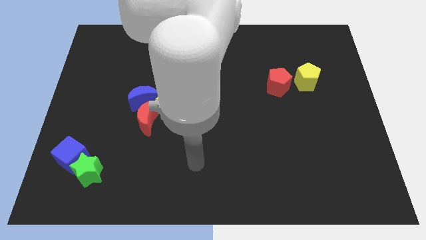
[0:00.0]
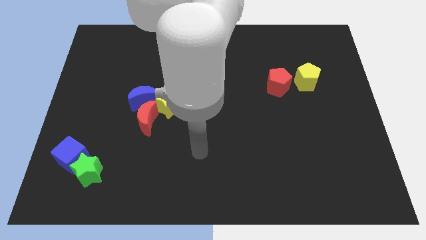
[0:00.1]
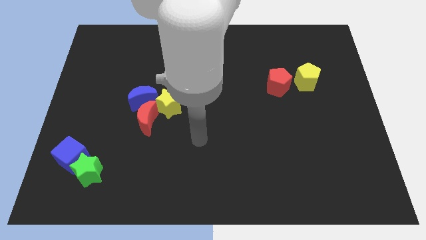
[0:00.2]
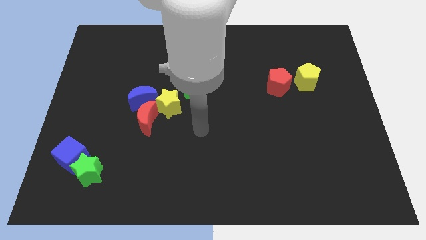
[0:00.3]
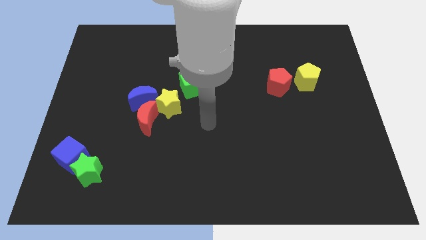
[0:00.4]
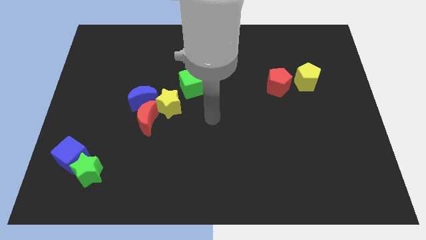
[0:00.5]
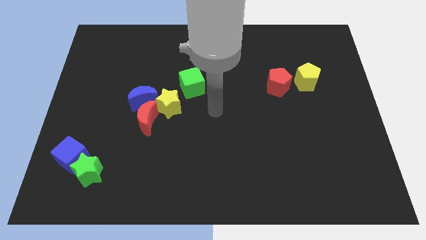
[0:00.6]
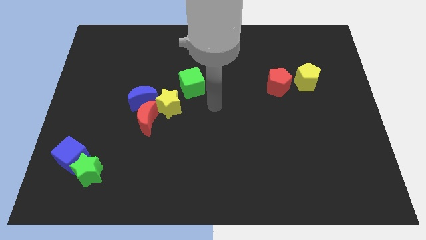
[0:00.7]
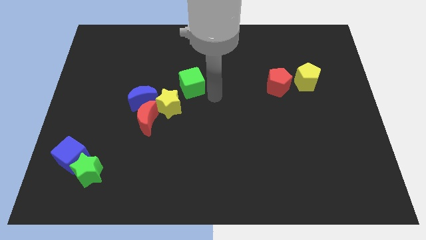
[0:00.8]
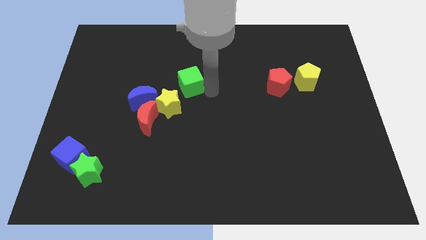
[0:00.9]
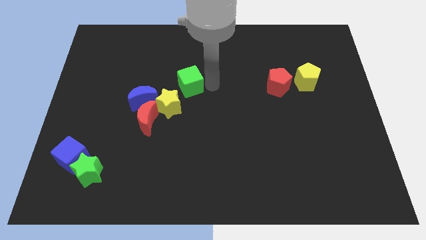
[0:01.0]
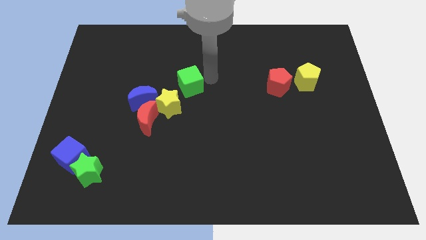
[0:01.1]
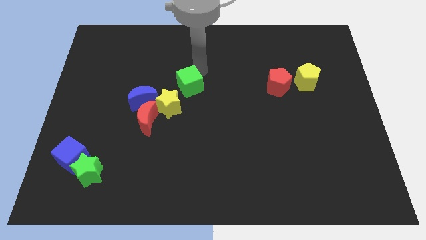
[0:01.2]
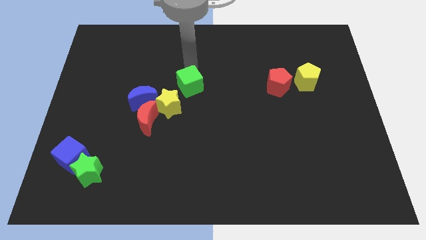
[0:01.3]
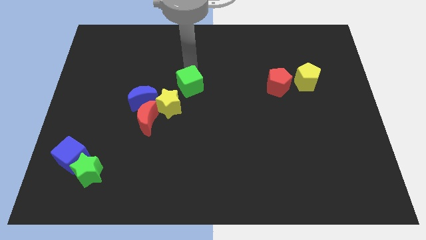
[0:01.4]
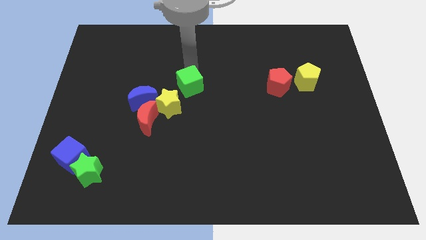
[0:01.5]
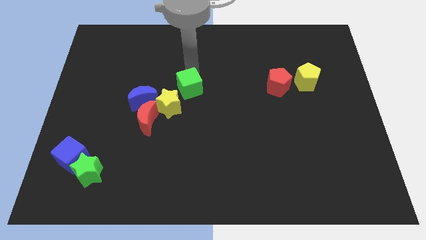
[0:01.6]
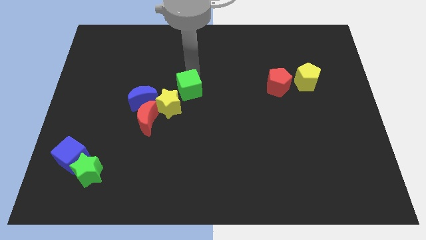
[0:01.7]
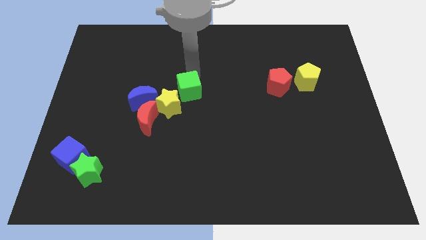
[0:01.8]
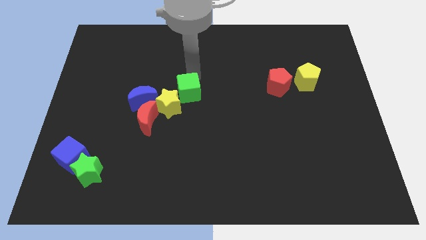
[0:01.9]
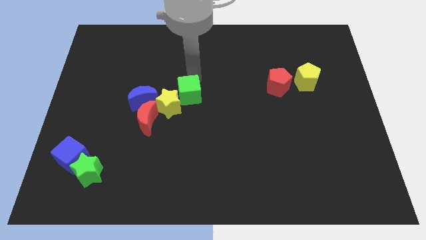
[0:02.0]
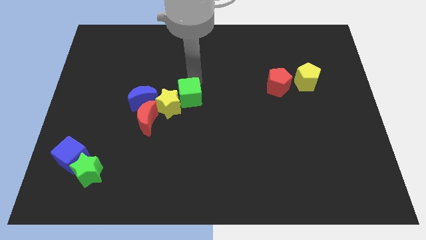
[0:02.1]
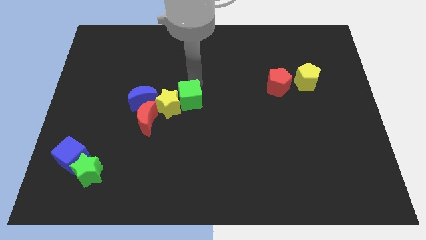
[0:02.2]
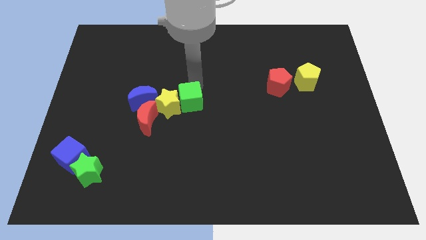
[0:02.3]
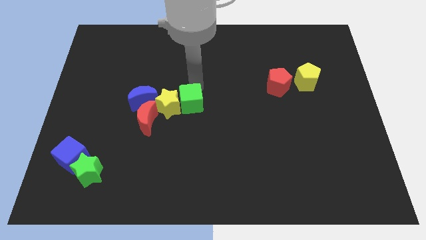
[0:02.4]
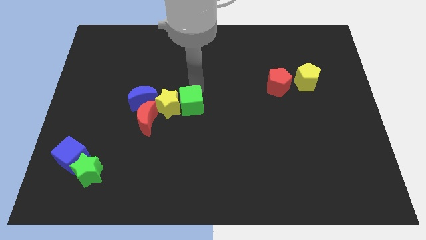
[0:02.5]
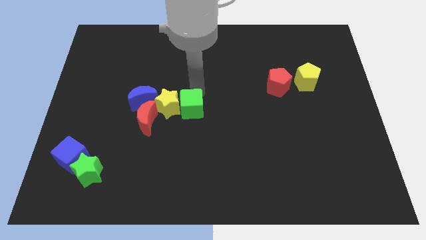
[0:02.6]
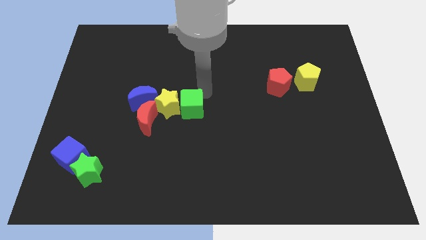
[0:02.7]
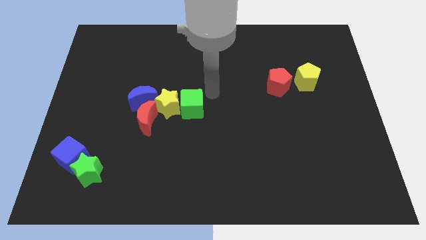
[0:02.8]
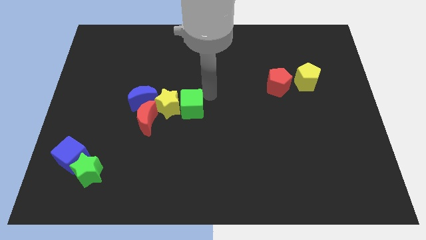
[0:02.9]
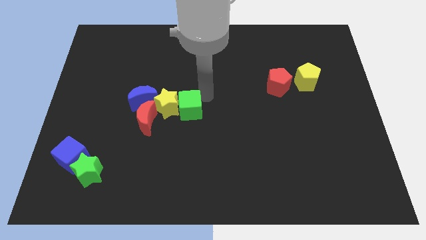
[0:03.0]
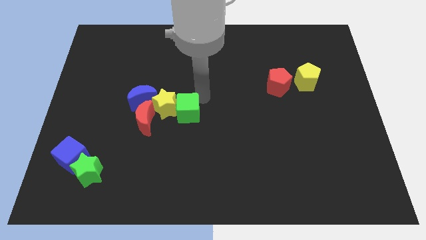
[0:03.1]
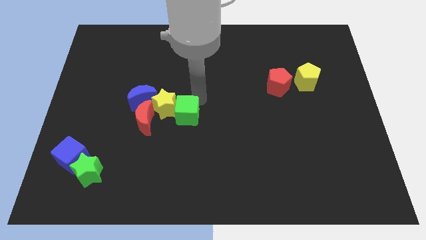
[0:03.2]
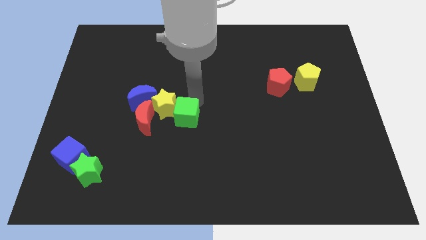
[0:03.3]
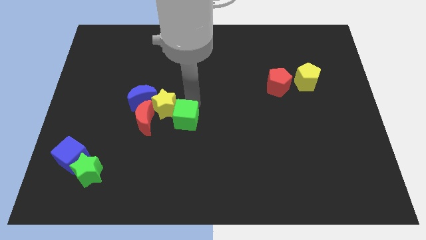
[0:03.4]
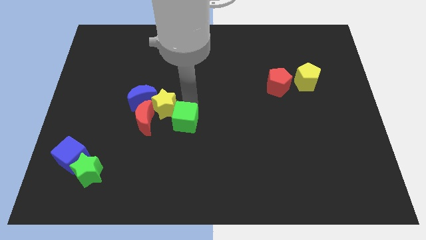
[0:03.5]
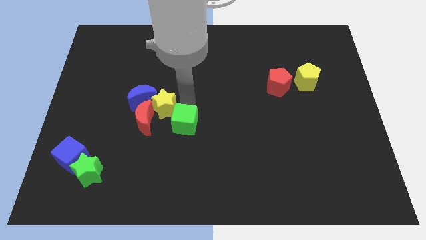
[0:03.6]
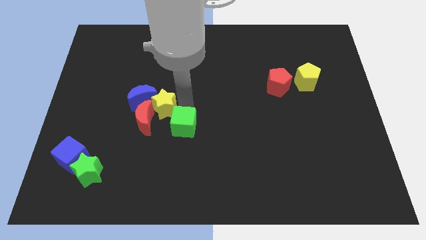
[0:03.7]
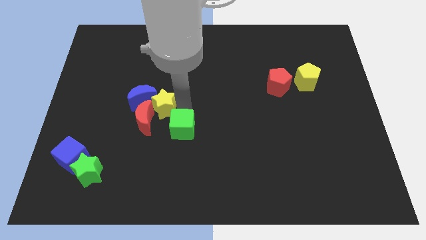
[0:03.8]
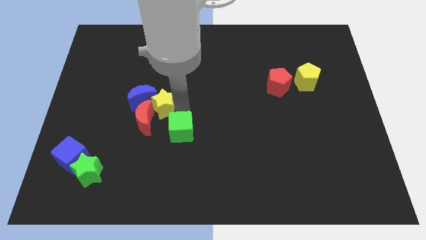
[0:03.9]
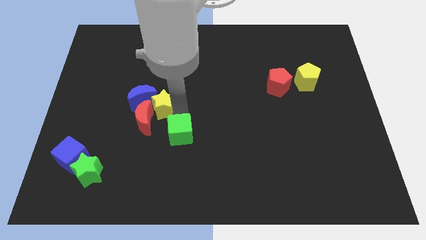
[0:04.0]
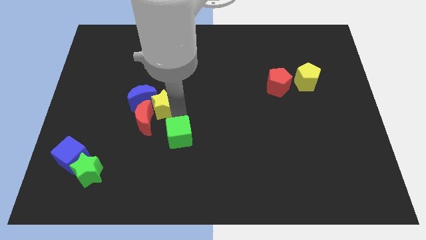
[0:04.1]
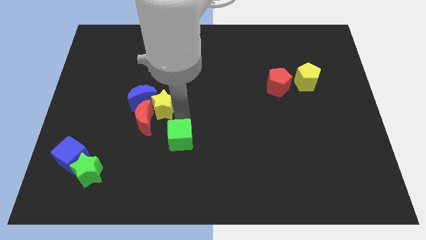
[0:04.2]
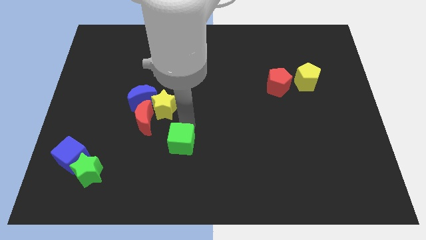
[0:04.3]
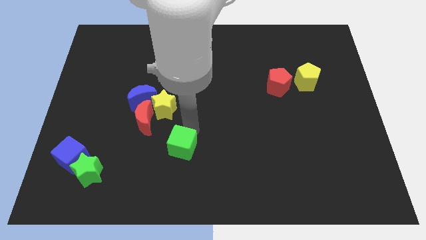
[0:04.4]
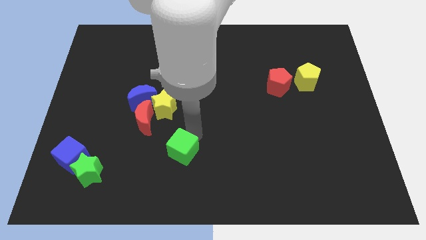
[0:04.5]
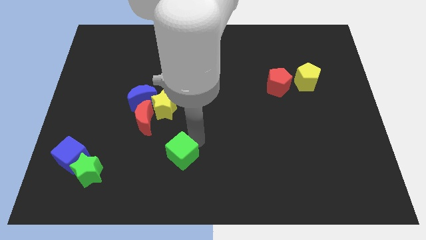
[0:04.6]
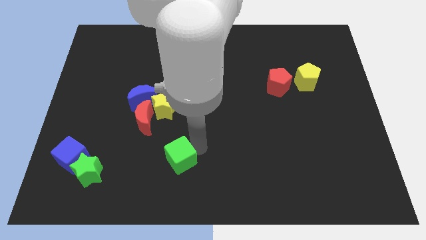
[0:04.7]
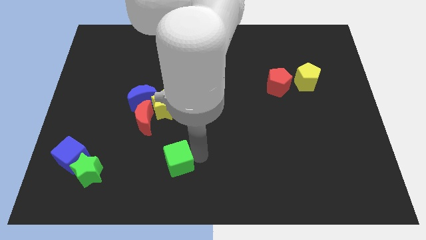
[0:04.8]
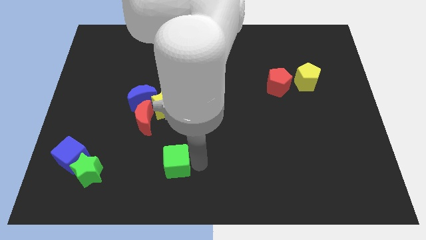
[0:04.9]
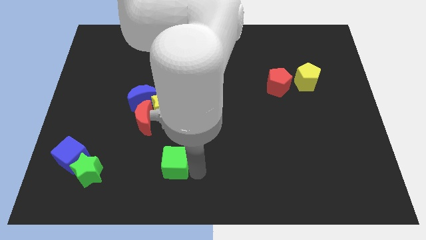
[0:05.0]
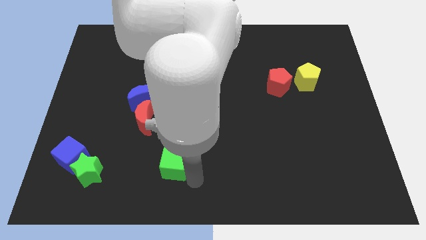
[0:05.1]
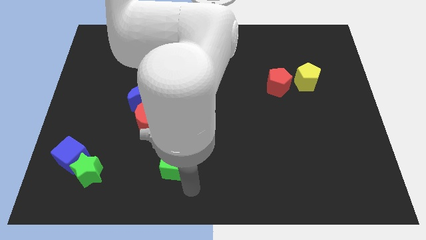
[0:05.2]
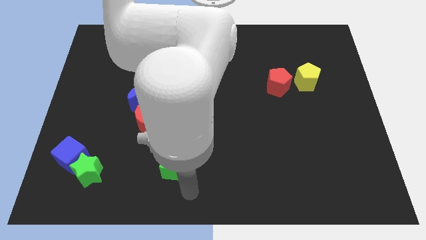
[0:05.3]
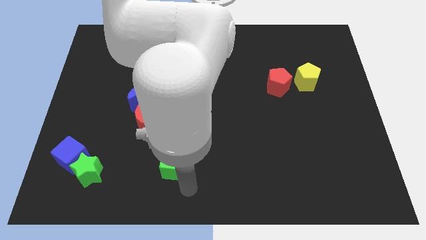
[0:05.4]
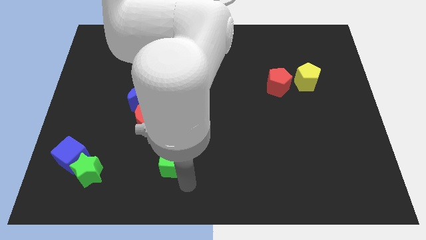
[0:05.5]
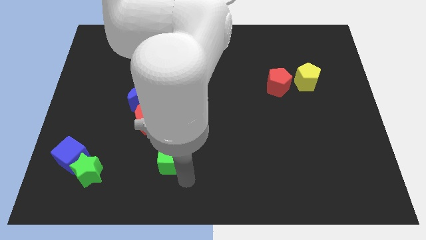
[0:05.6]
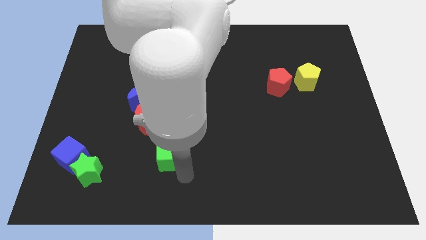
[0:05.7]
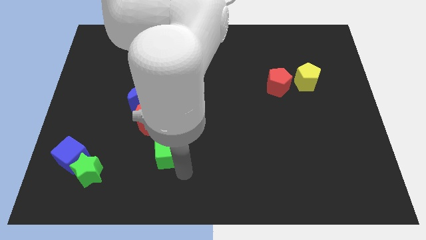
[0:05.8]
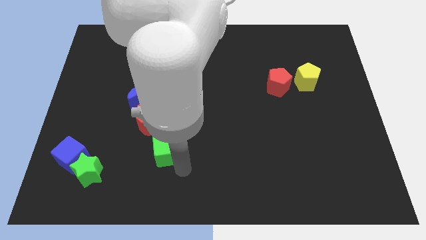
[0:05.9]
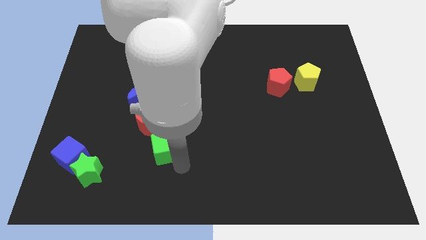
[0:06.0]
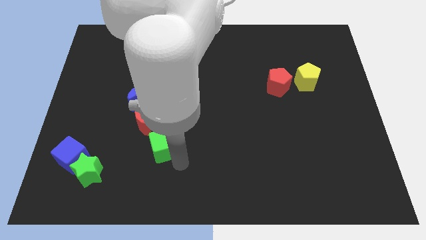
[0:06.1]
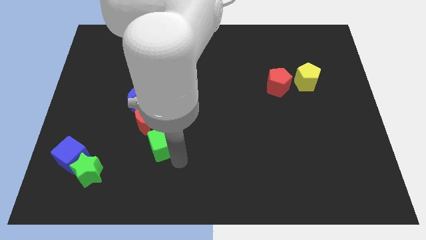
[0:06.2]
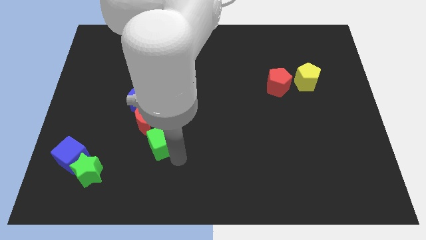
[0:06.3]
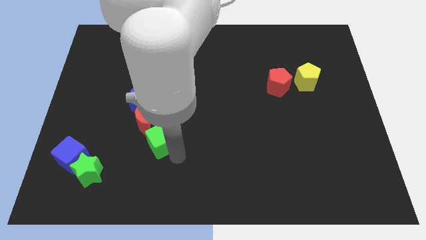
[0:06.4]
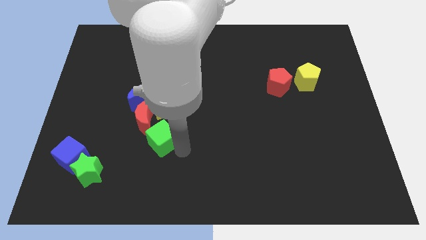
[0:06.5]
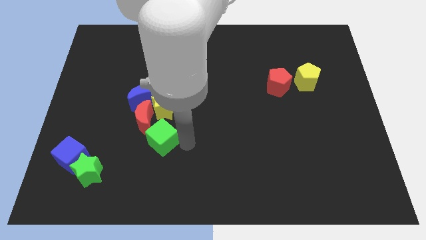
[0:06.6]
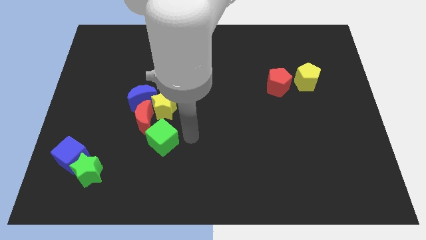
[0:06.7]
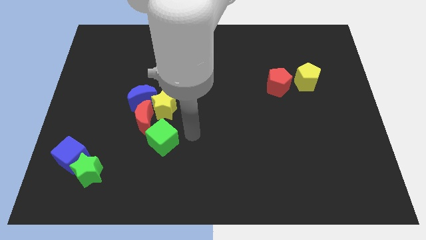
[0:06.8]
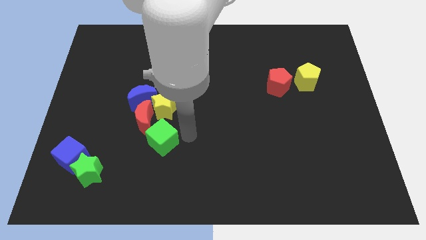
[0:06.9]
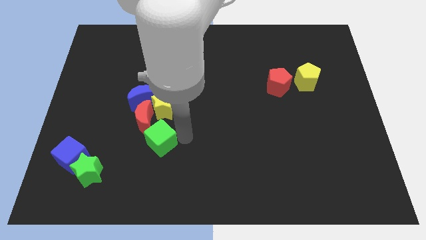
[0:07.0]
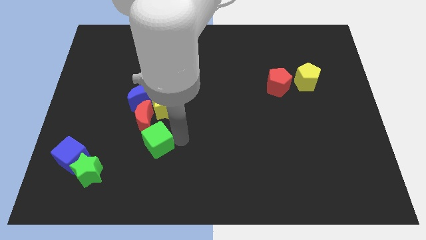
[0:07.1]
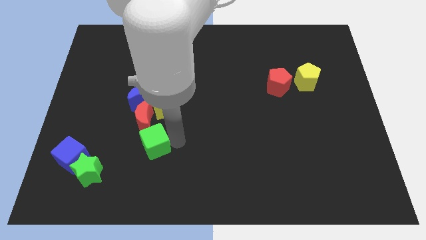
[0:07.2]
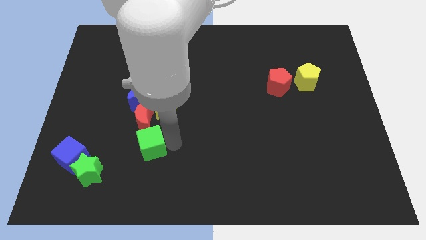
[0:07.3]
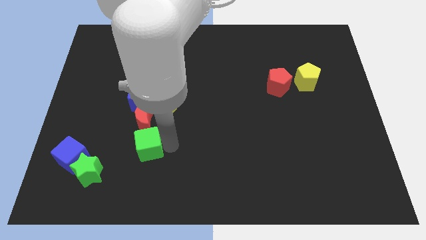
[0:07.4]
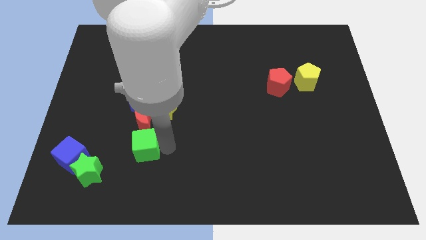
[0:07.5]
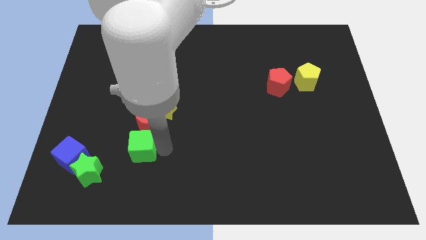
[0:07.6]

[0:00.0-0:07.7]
slide the green cube diagonally up and to the right of the green star

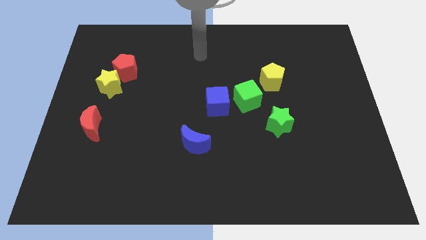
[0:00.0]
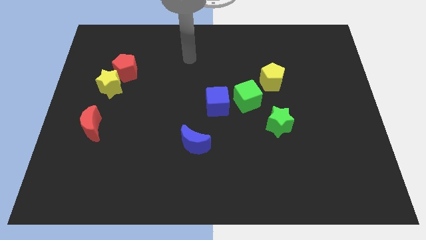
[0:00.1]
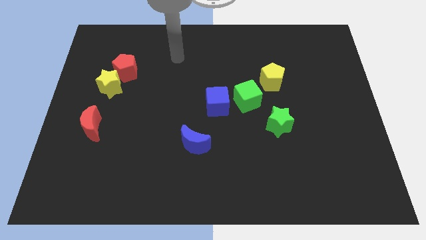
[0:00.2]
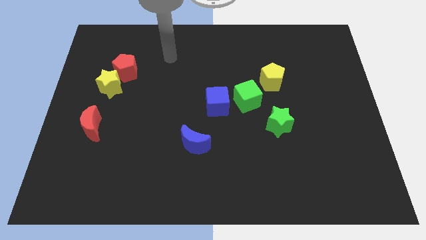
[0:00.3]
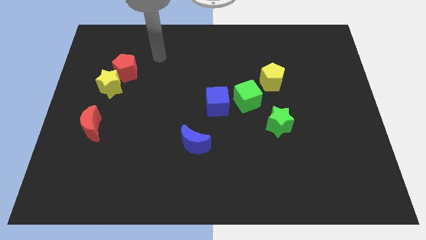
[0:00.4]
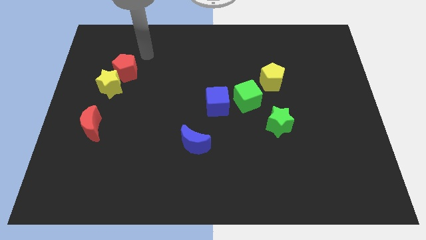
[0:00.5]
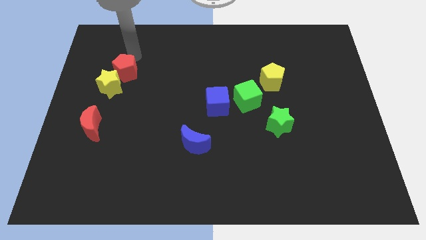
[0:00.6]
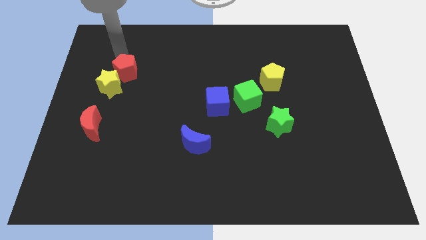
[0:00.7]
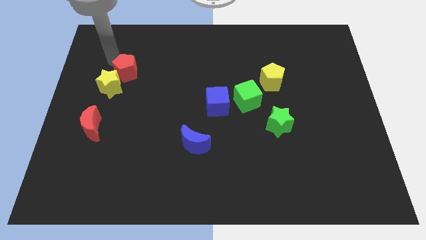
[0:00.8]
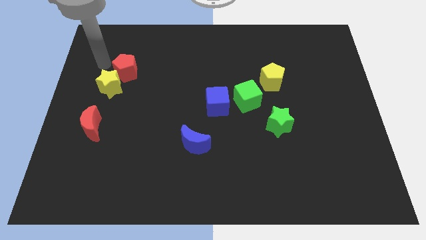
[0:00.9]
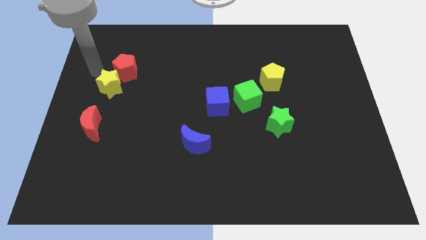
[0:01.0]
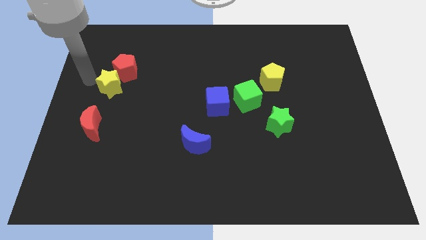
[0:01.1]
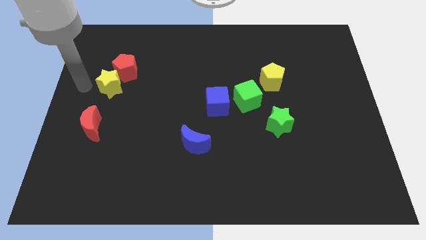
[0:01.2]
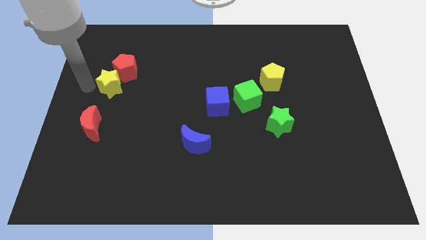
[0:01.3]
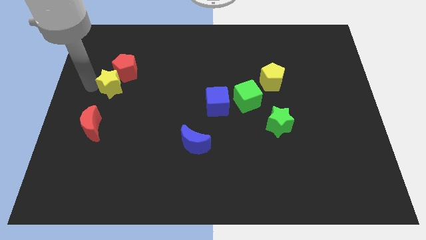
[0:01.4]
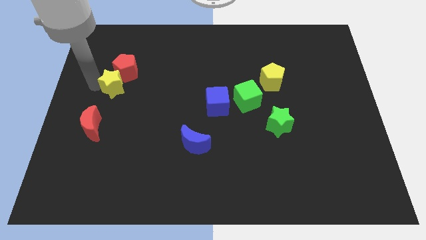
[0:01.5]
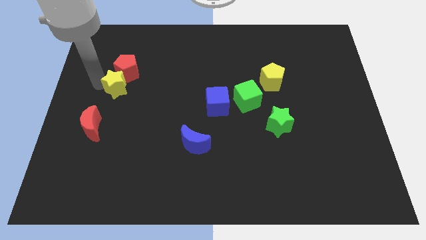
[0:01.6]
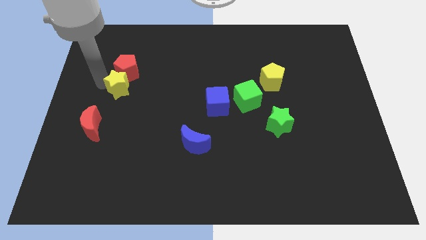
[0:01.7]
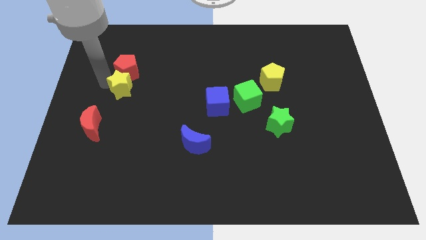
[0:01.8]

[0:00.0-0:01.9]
move the yellow star diagonally down and to the right of the red pentagon
